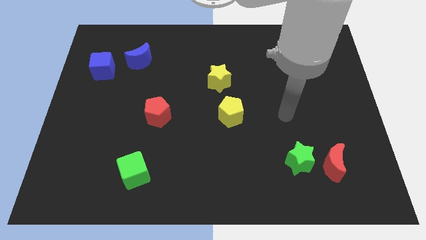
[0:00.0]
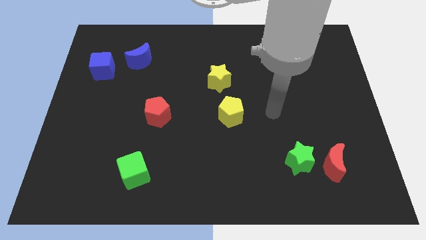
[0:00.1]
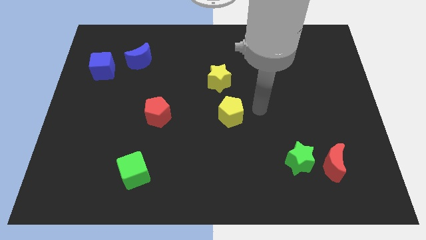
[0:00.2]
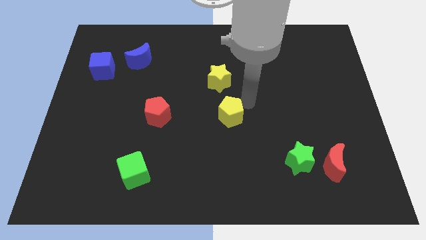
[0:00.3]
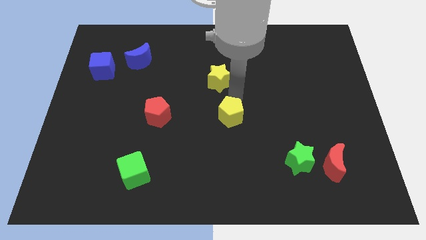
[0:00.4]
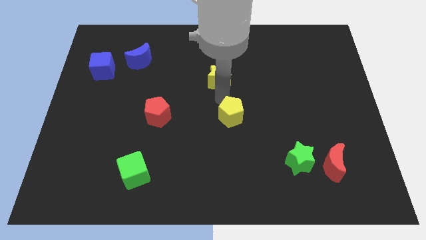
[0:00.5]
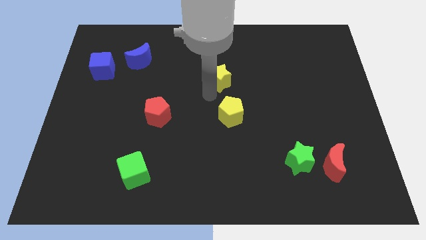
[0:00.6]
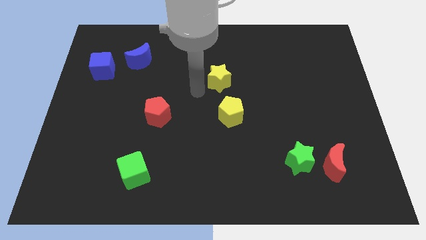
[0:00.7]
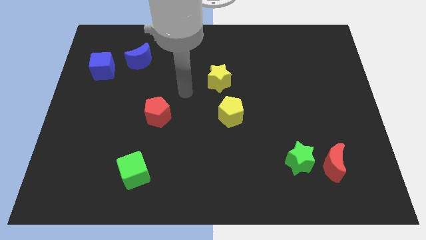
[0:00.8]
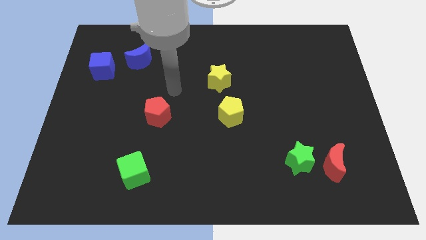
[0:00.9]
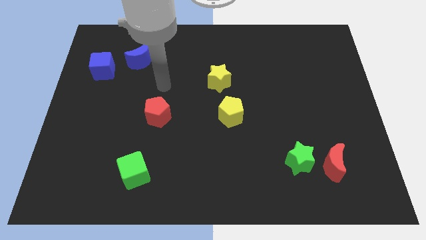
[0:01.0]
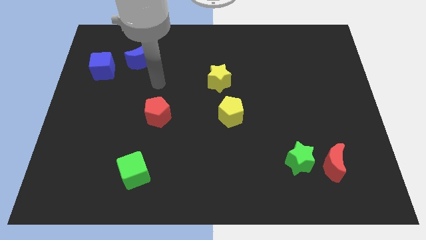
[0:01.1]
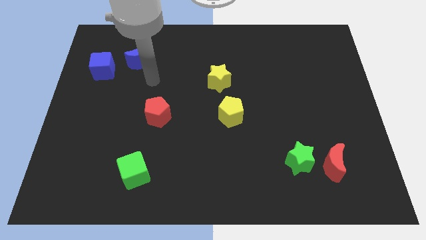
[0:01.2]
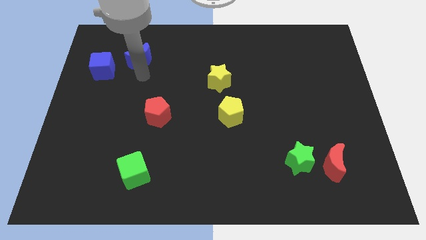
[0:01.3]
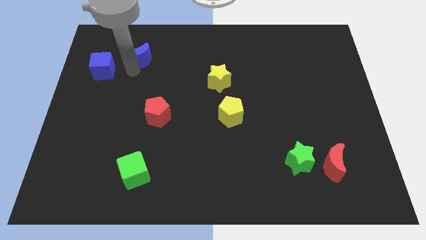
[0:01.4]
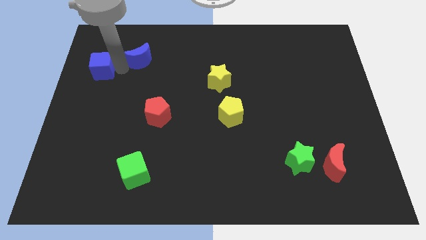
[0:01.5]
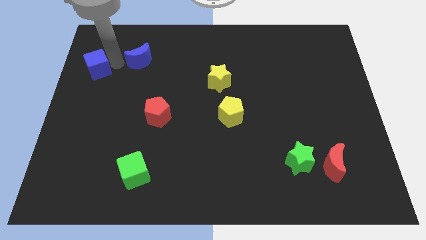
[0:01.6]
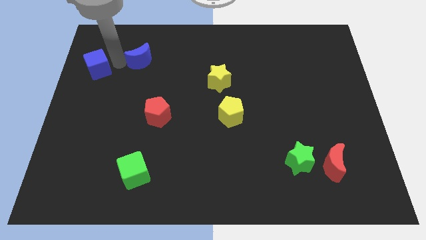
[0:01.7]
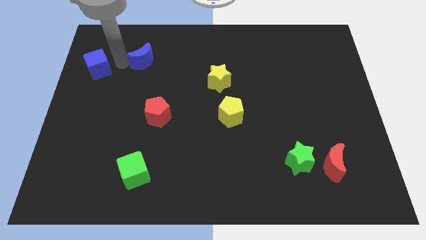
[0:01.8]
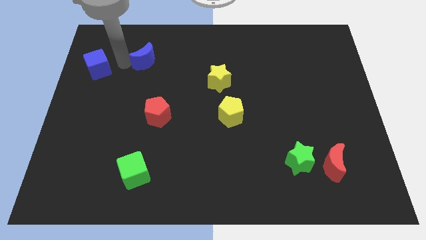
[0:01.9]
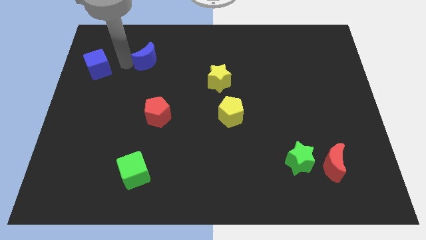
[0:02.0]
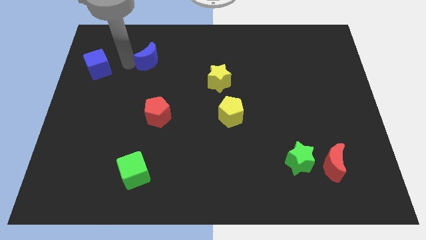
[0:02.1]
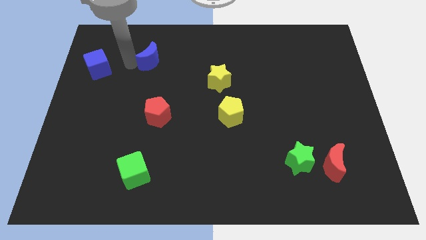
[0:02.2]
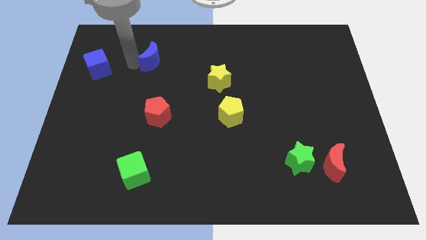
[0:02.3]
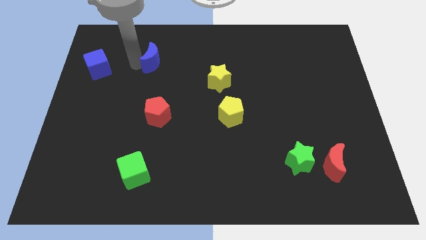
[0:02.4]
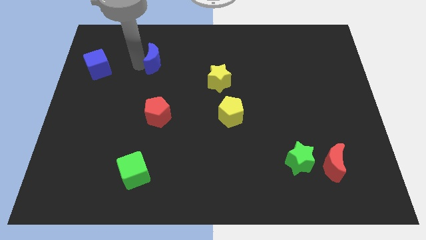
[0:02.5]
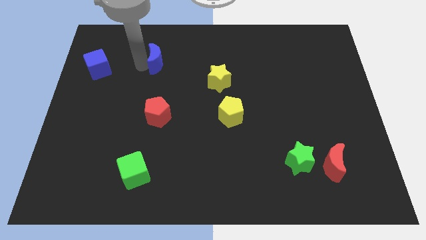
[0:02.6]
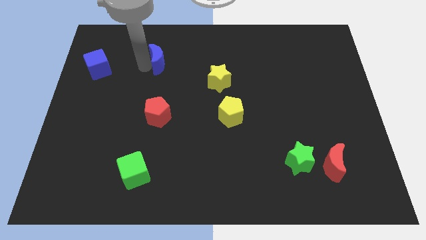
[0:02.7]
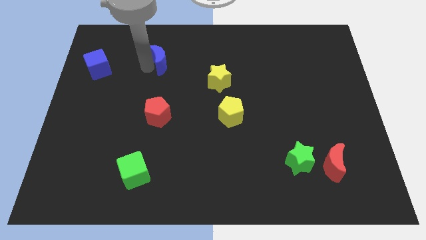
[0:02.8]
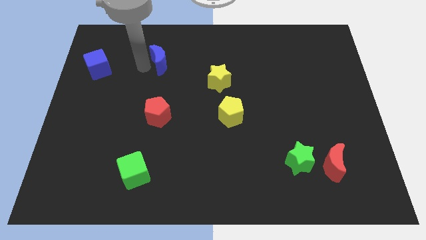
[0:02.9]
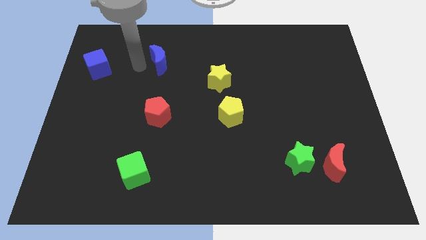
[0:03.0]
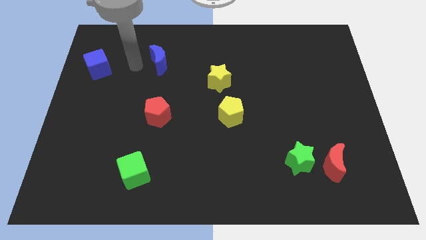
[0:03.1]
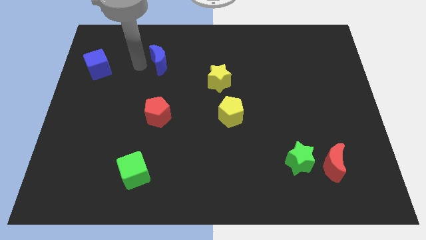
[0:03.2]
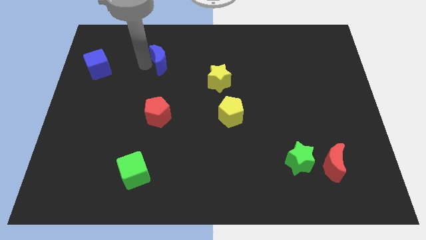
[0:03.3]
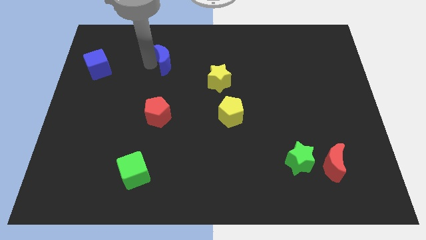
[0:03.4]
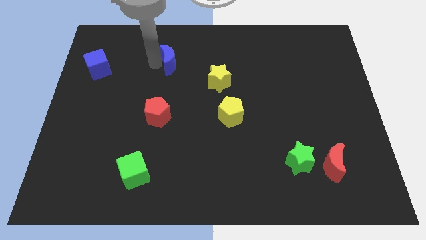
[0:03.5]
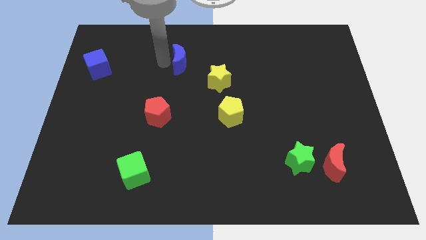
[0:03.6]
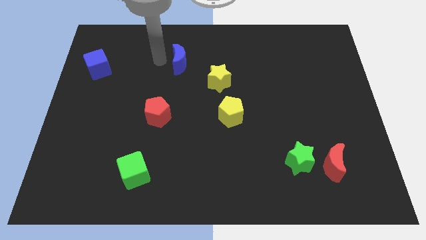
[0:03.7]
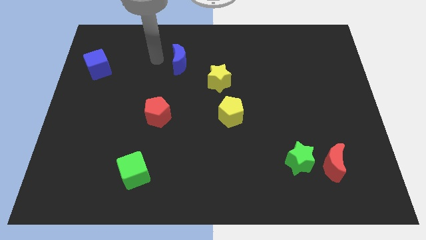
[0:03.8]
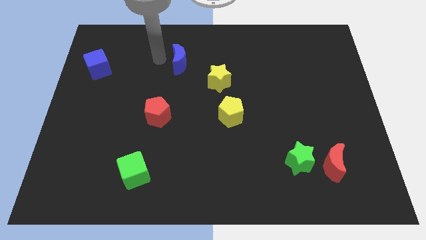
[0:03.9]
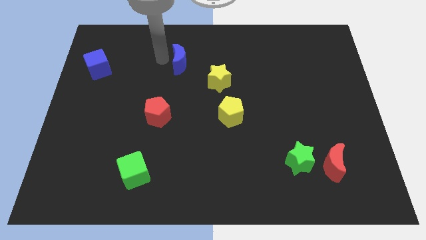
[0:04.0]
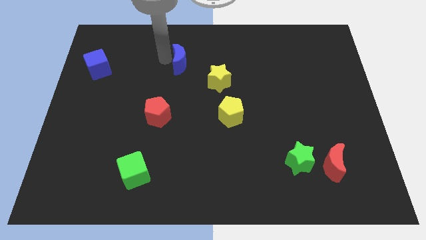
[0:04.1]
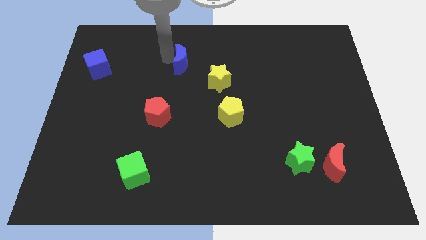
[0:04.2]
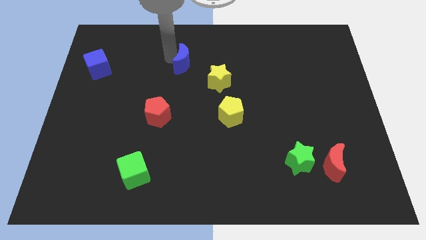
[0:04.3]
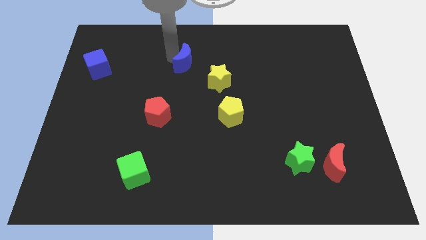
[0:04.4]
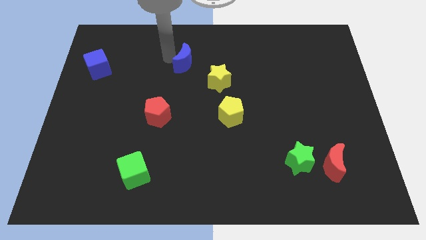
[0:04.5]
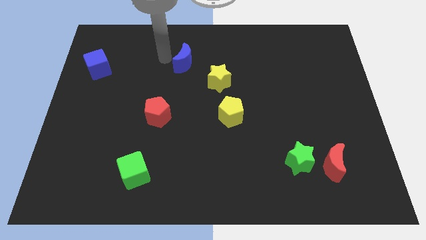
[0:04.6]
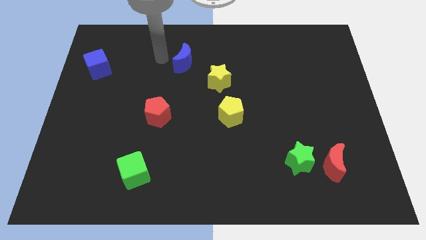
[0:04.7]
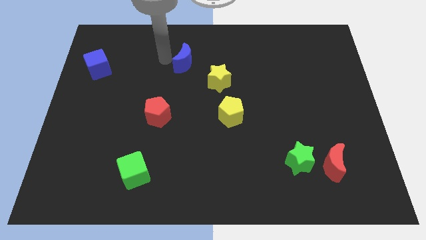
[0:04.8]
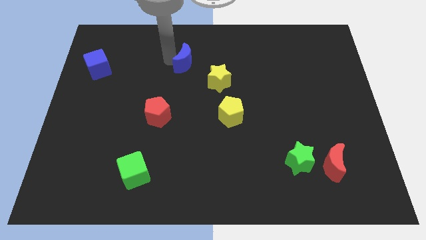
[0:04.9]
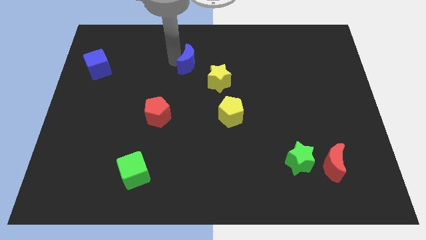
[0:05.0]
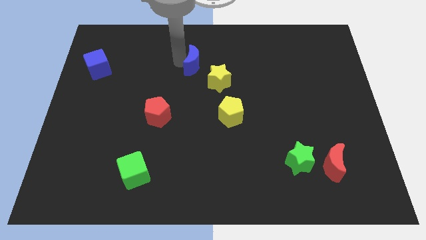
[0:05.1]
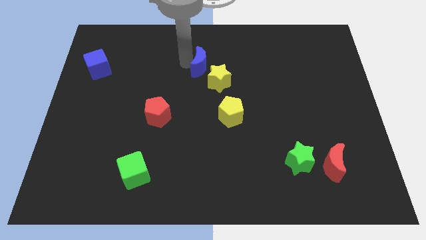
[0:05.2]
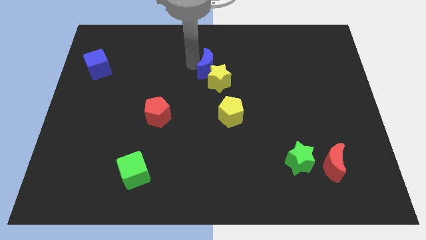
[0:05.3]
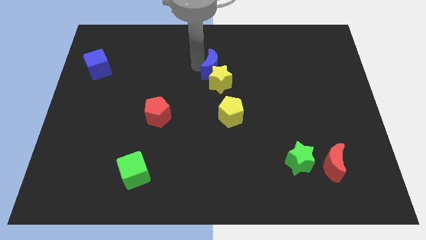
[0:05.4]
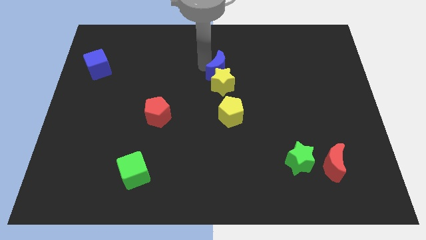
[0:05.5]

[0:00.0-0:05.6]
move the blue moon to the top side of the yellow pentagon

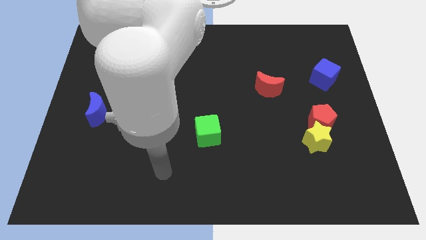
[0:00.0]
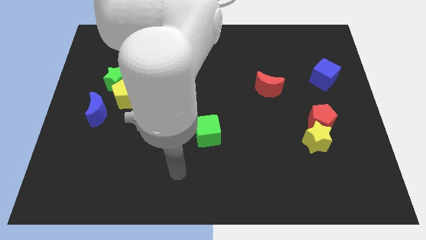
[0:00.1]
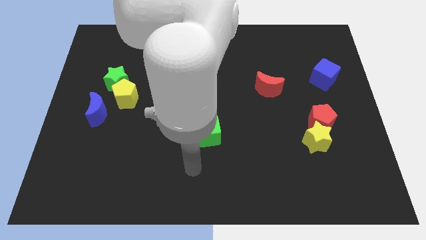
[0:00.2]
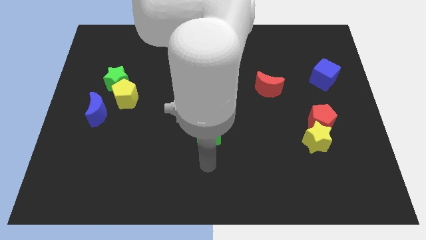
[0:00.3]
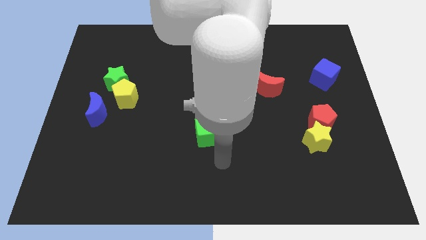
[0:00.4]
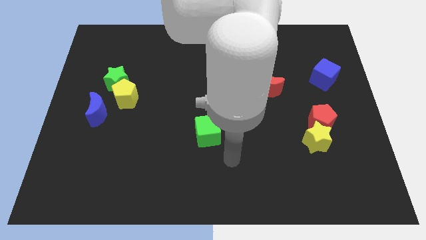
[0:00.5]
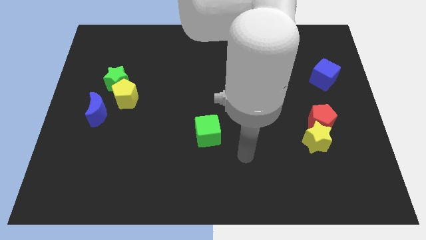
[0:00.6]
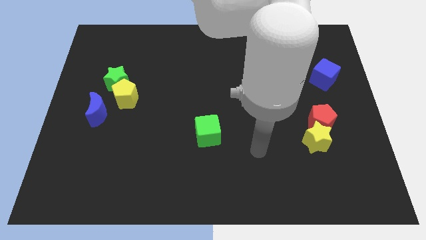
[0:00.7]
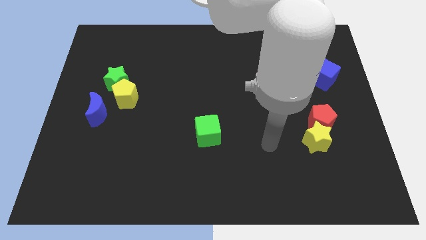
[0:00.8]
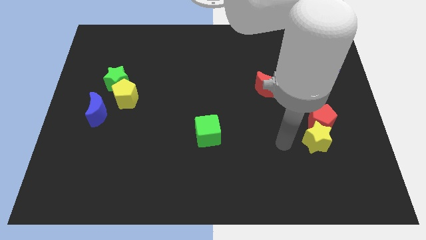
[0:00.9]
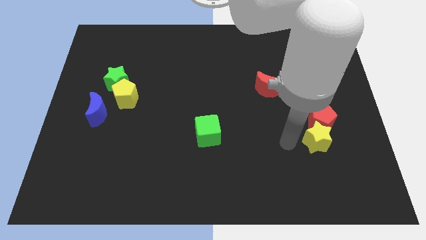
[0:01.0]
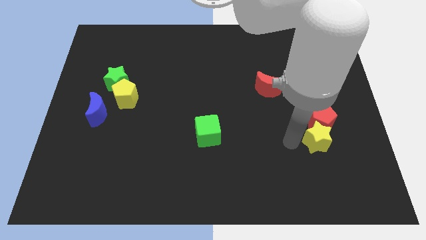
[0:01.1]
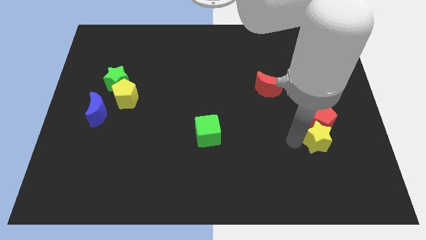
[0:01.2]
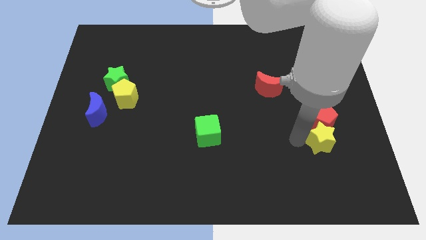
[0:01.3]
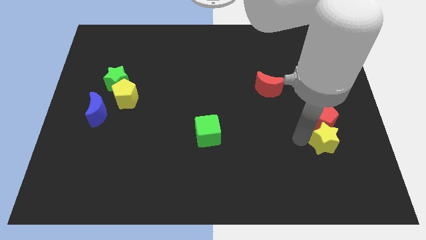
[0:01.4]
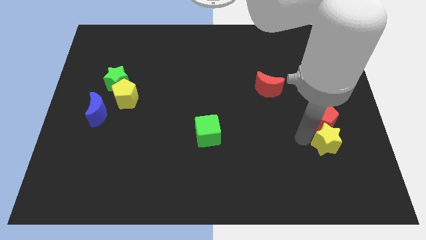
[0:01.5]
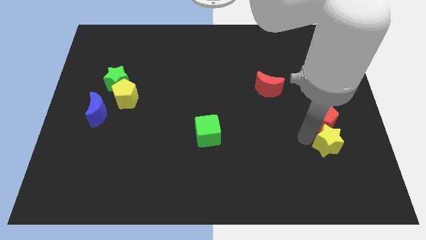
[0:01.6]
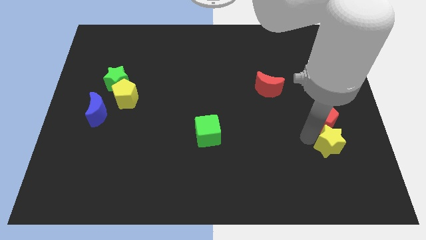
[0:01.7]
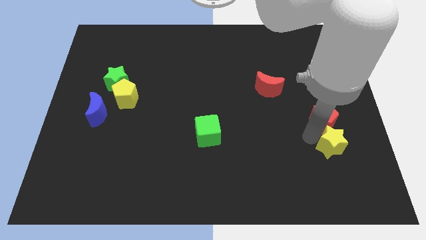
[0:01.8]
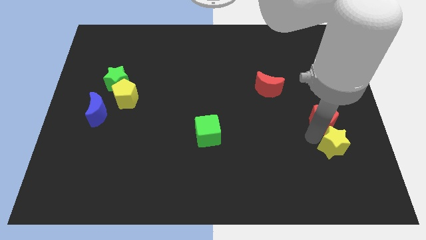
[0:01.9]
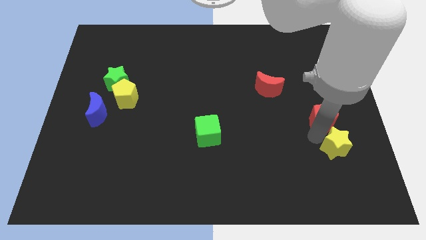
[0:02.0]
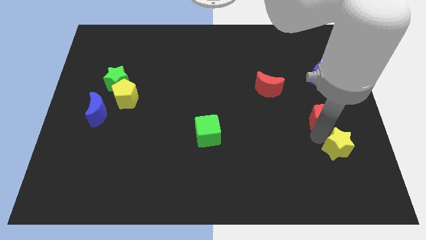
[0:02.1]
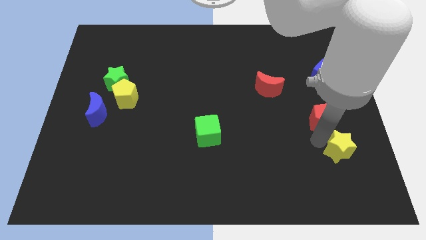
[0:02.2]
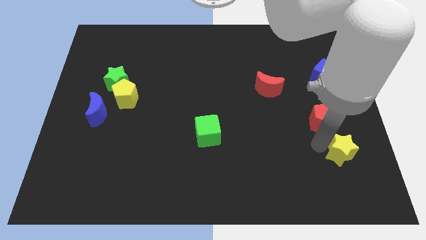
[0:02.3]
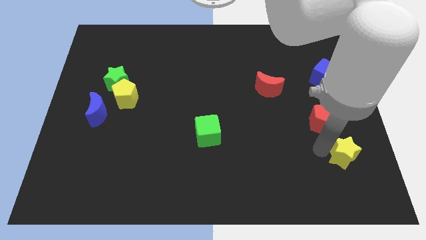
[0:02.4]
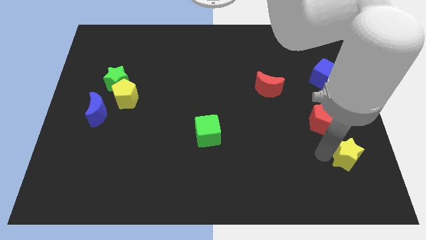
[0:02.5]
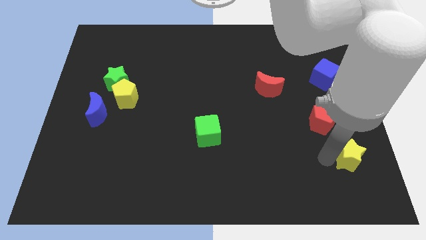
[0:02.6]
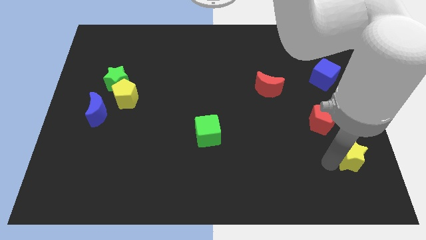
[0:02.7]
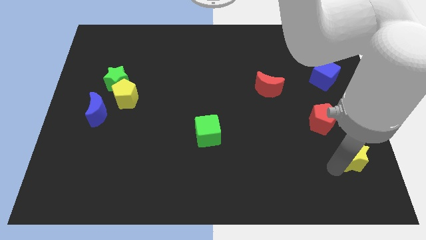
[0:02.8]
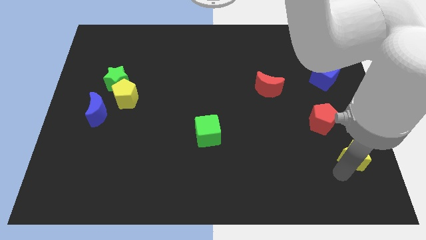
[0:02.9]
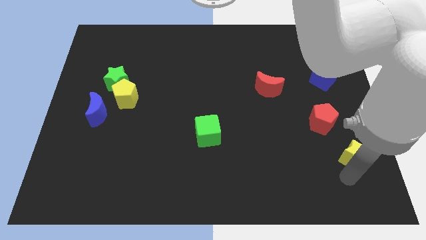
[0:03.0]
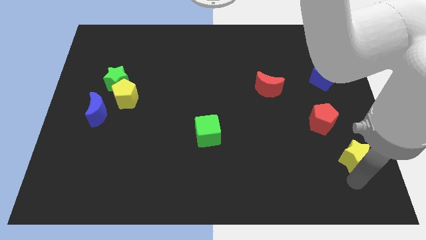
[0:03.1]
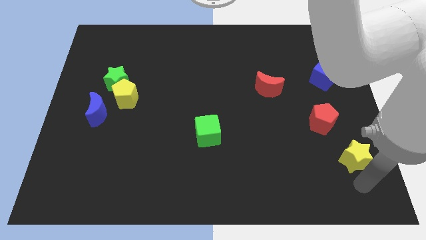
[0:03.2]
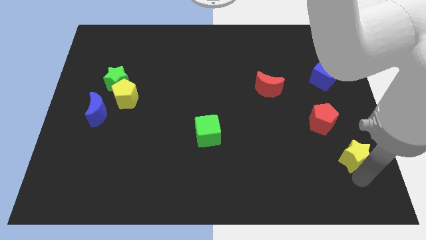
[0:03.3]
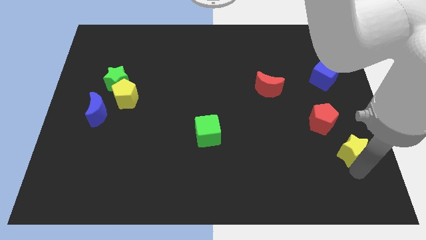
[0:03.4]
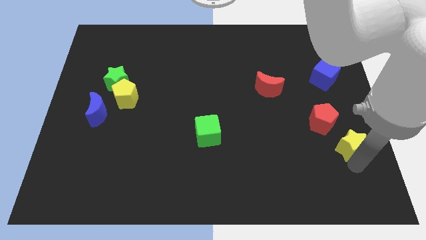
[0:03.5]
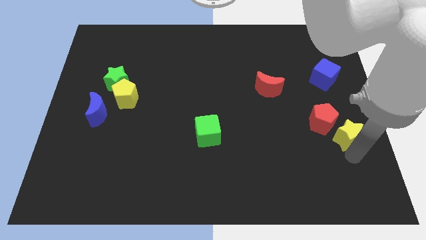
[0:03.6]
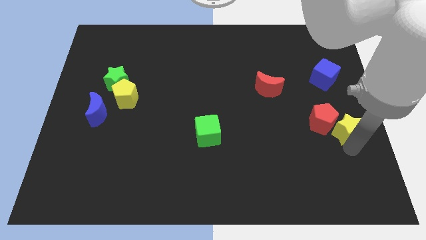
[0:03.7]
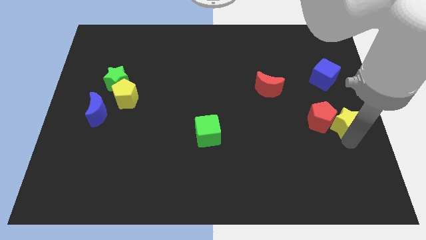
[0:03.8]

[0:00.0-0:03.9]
push the yellow star below the blue cube
